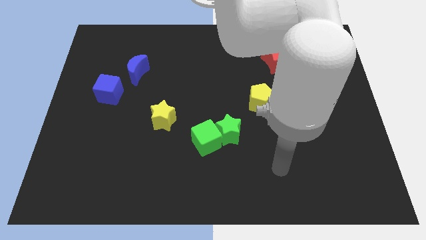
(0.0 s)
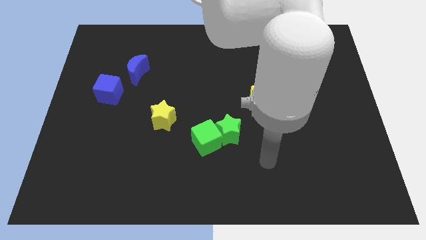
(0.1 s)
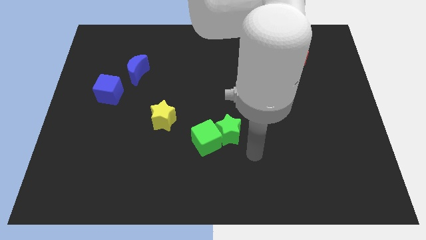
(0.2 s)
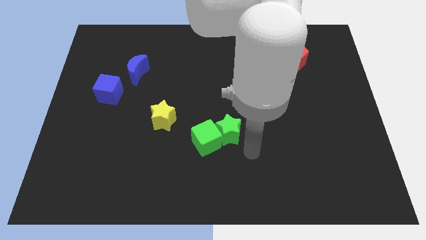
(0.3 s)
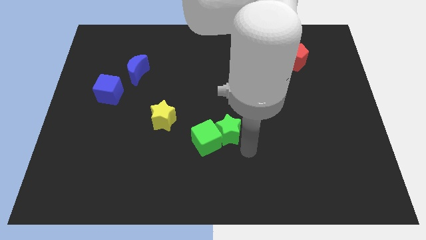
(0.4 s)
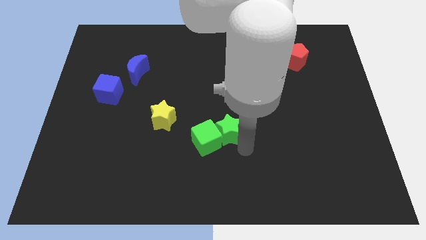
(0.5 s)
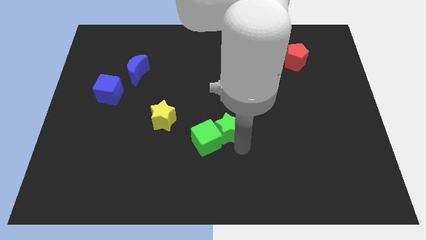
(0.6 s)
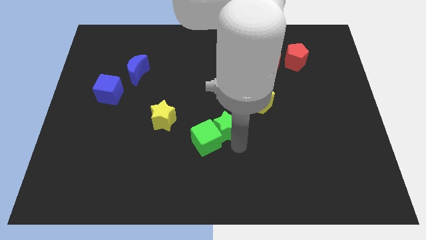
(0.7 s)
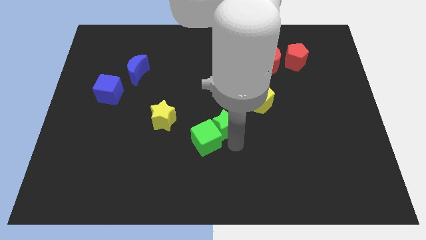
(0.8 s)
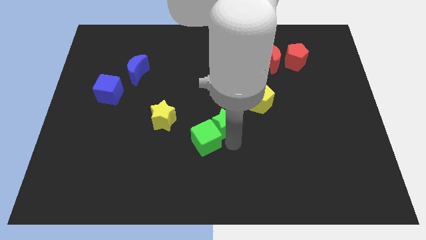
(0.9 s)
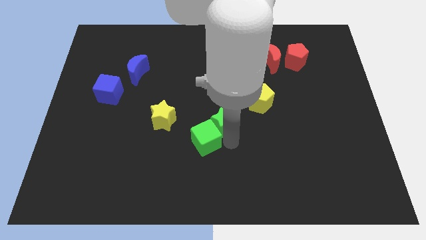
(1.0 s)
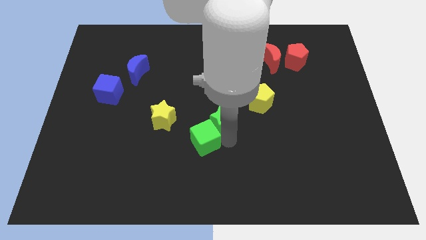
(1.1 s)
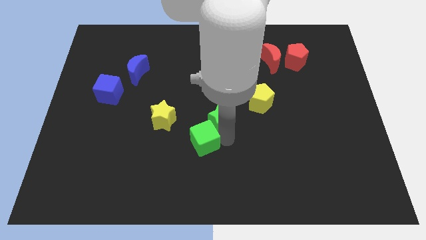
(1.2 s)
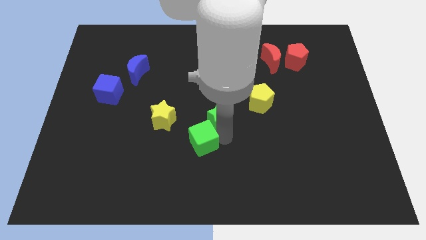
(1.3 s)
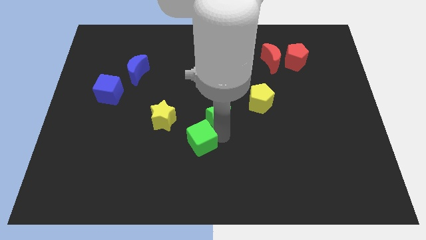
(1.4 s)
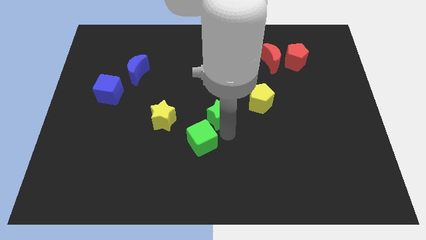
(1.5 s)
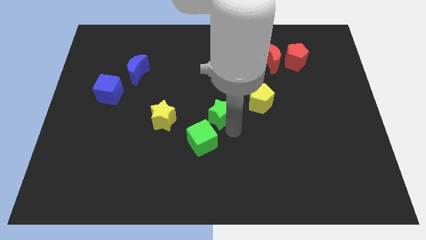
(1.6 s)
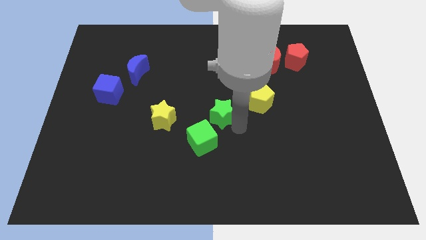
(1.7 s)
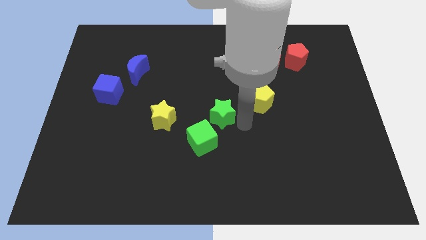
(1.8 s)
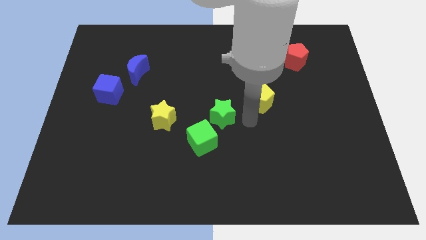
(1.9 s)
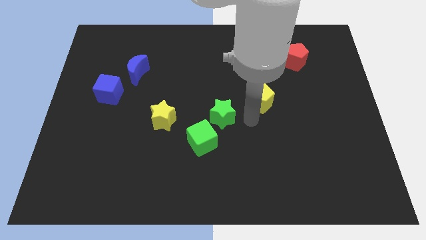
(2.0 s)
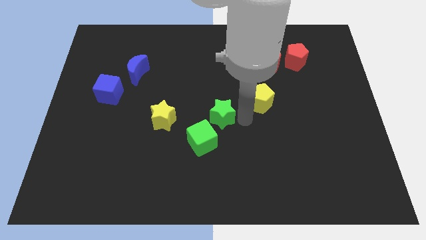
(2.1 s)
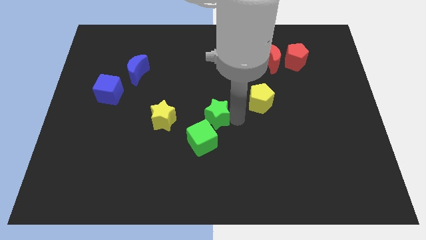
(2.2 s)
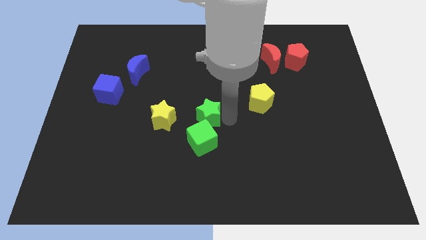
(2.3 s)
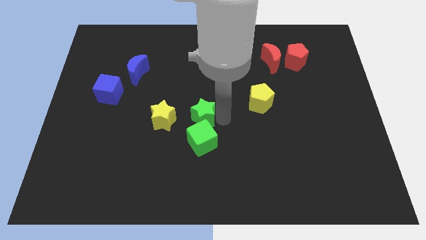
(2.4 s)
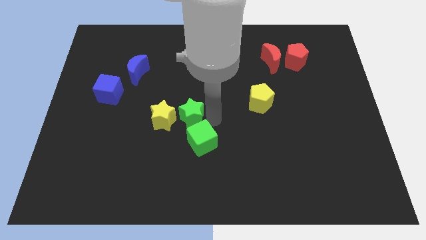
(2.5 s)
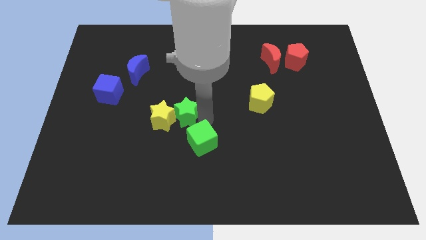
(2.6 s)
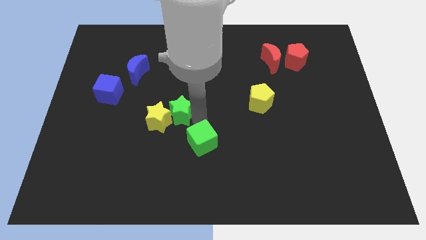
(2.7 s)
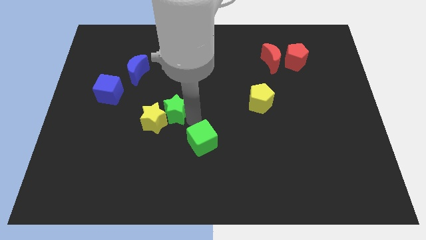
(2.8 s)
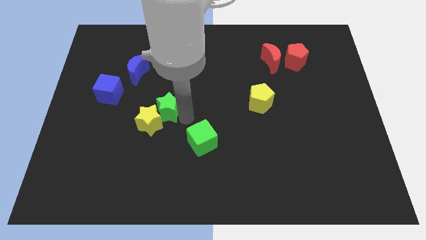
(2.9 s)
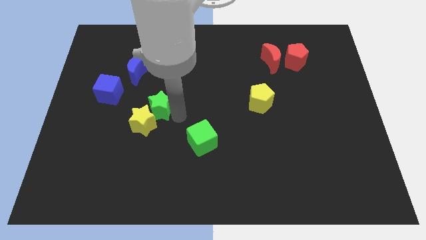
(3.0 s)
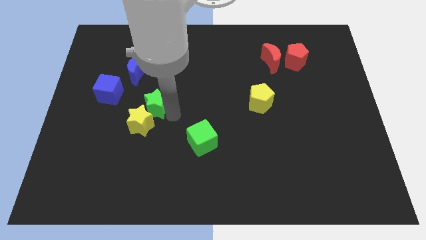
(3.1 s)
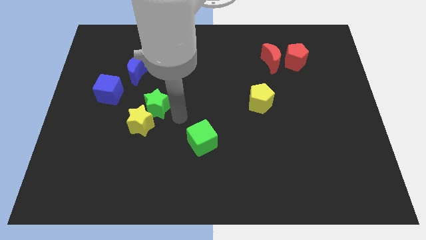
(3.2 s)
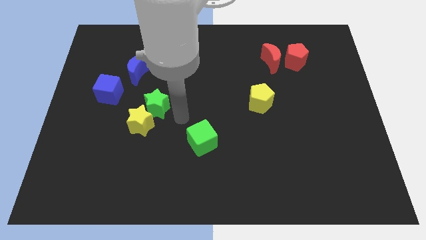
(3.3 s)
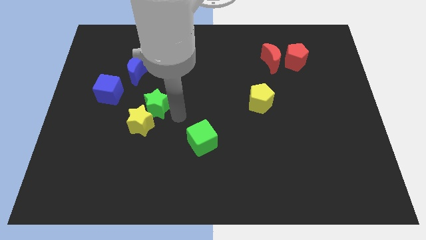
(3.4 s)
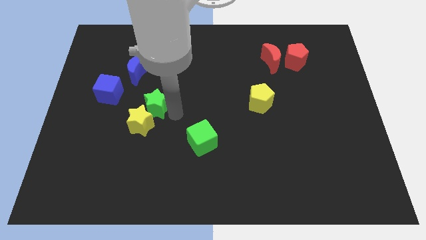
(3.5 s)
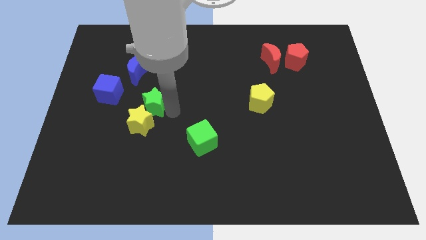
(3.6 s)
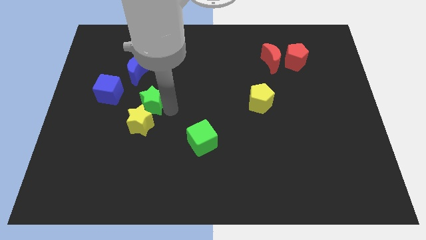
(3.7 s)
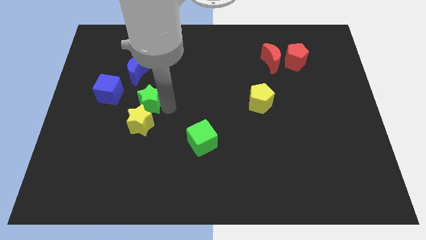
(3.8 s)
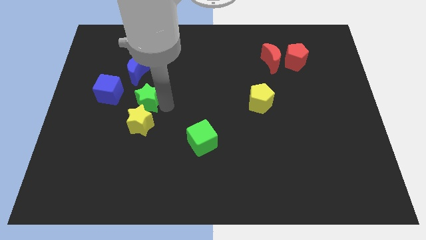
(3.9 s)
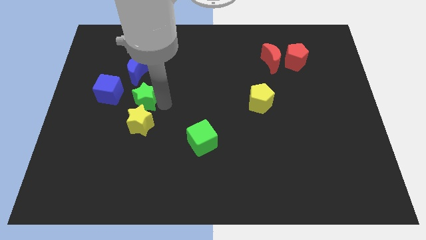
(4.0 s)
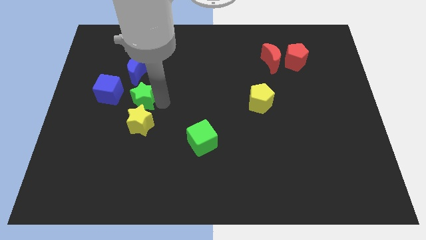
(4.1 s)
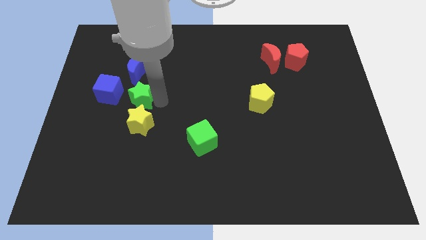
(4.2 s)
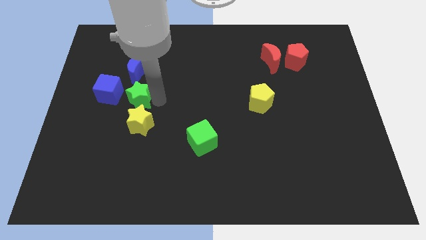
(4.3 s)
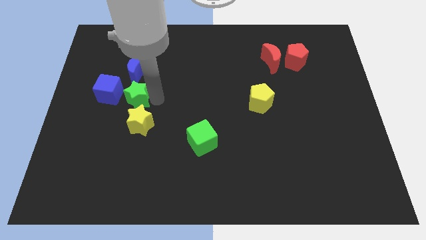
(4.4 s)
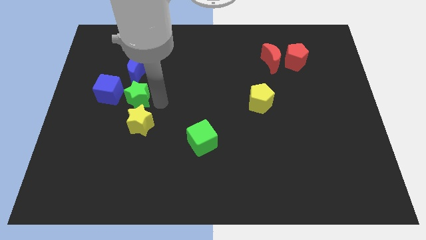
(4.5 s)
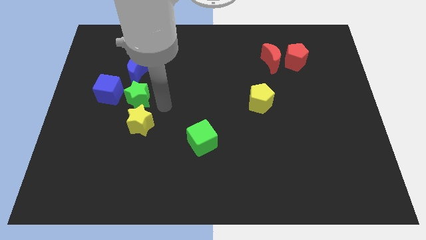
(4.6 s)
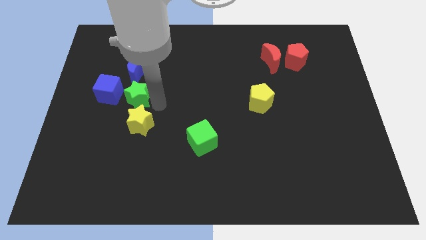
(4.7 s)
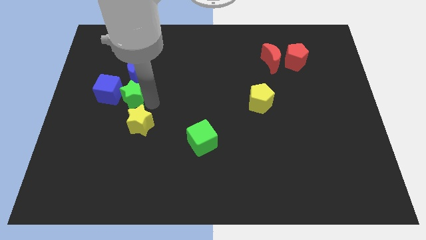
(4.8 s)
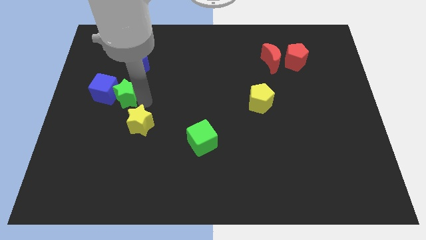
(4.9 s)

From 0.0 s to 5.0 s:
put the green star next to the blue cube

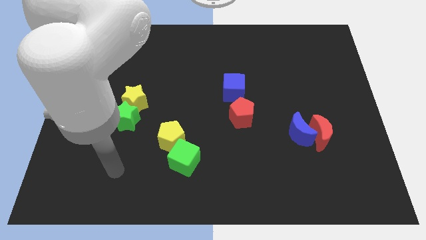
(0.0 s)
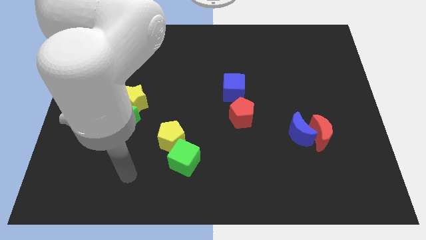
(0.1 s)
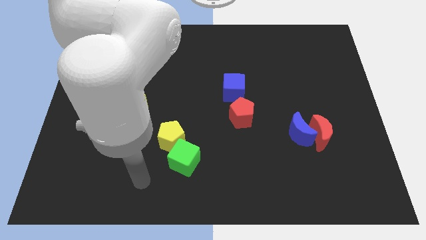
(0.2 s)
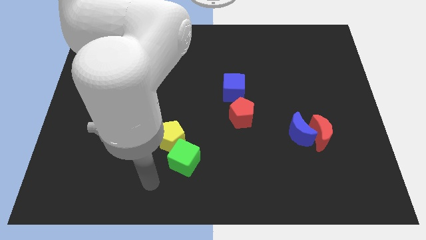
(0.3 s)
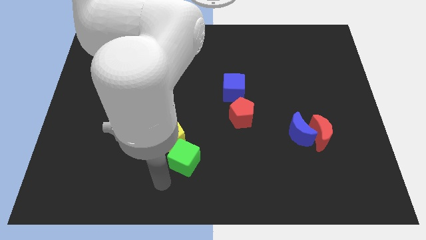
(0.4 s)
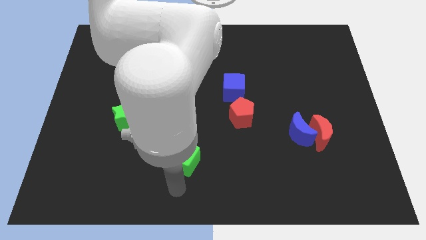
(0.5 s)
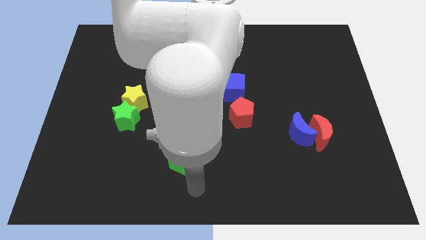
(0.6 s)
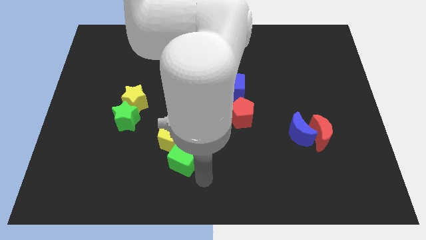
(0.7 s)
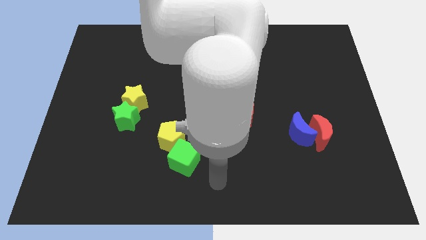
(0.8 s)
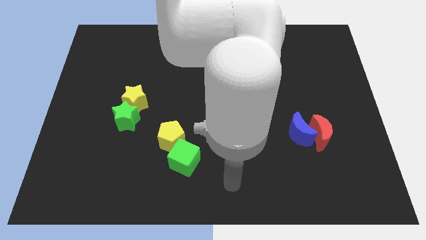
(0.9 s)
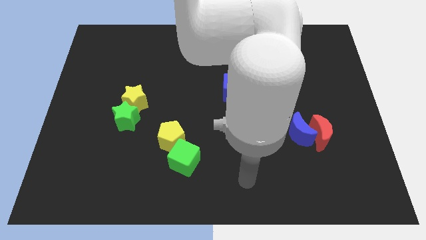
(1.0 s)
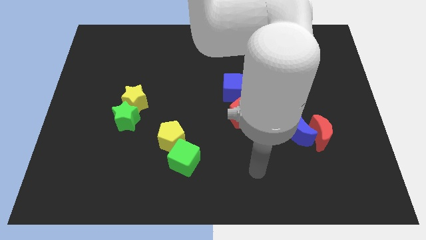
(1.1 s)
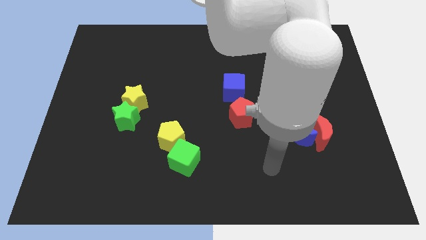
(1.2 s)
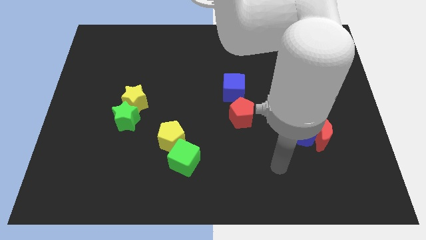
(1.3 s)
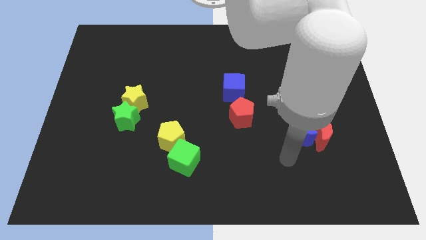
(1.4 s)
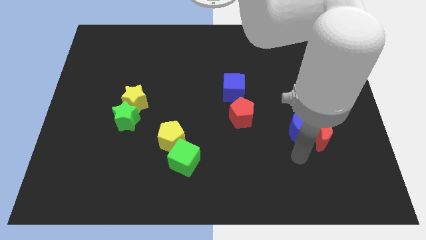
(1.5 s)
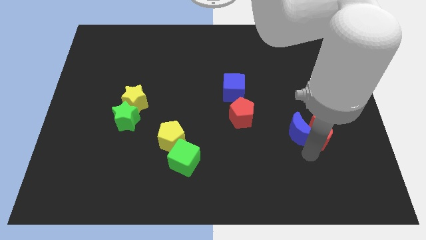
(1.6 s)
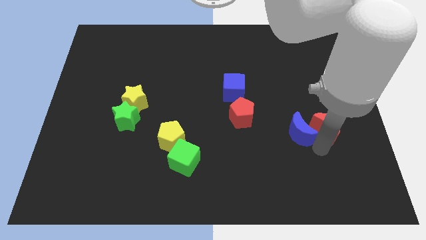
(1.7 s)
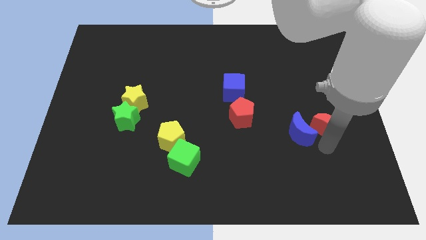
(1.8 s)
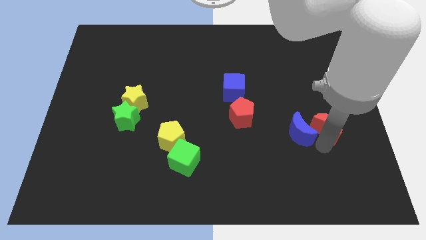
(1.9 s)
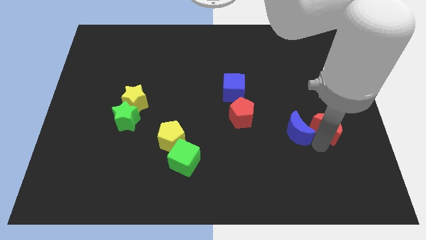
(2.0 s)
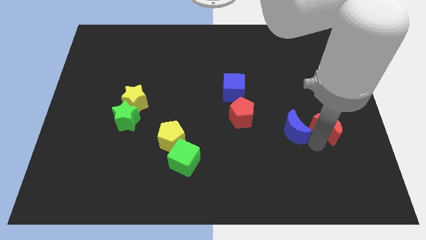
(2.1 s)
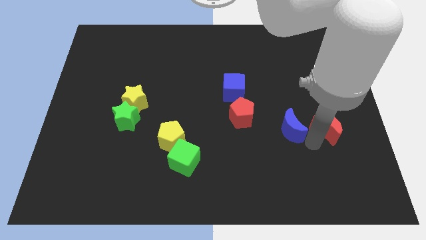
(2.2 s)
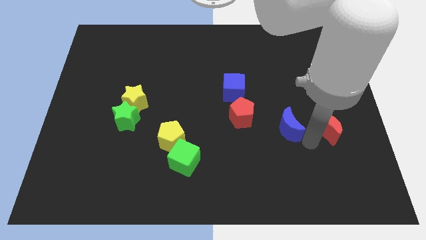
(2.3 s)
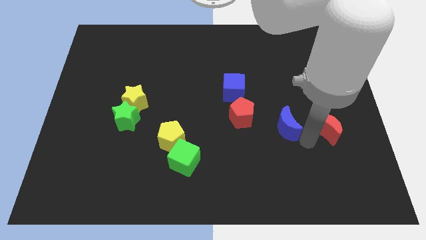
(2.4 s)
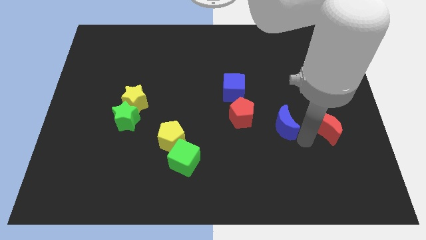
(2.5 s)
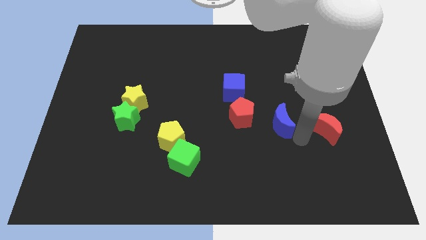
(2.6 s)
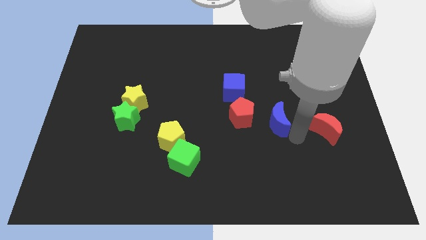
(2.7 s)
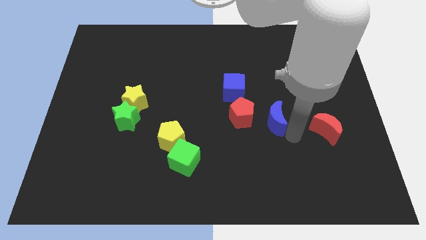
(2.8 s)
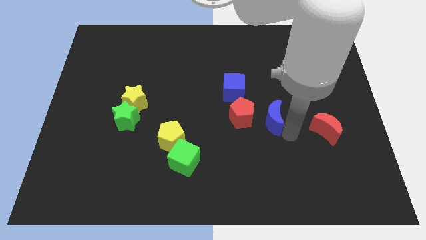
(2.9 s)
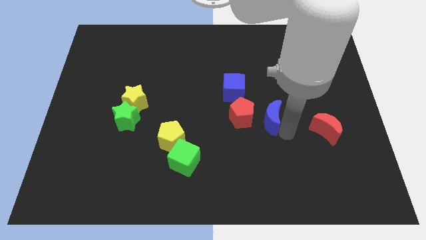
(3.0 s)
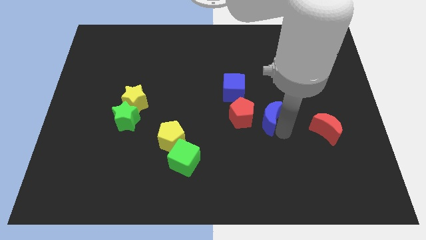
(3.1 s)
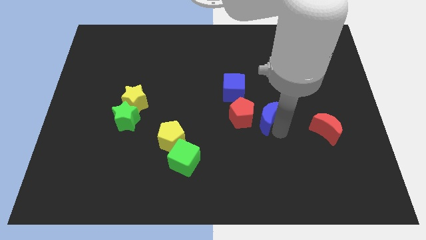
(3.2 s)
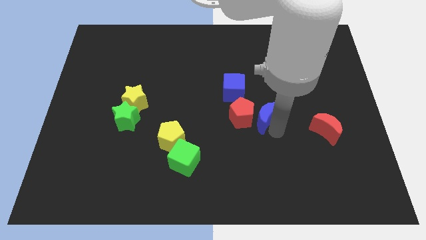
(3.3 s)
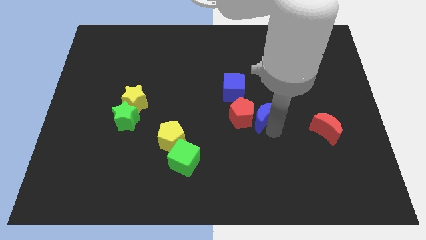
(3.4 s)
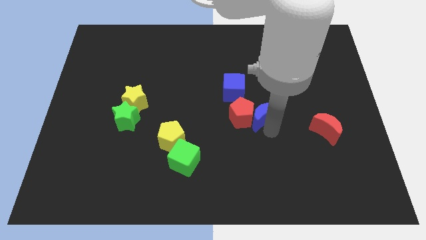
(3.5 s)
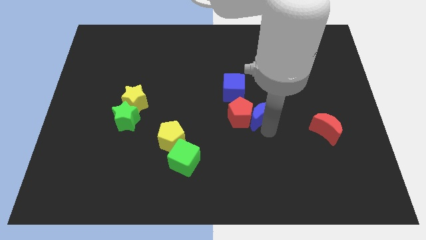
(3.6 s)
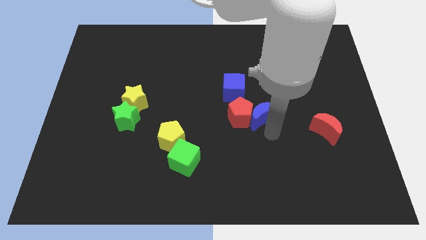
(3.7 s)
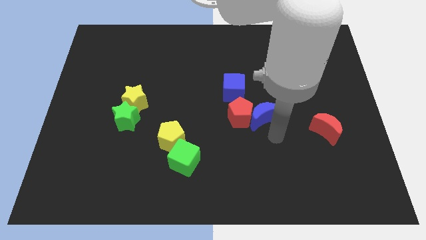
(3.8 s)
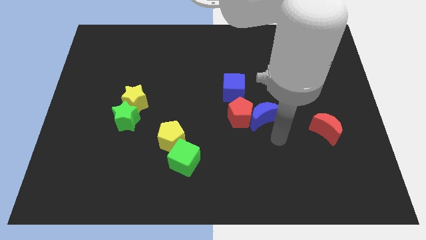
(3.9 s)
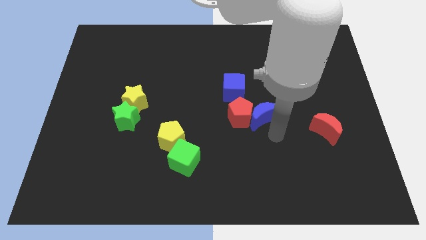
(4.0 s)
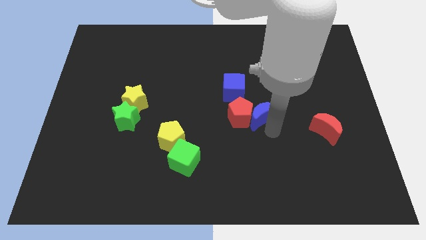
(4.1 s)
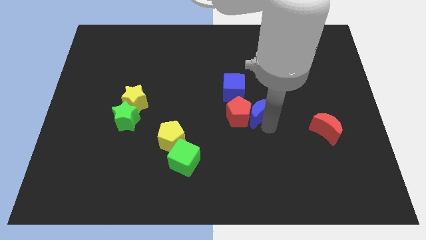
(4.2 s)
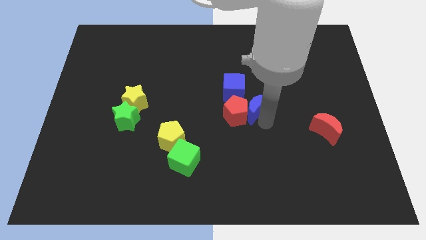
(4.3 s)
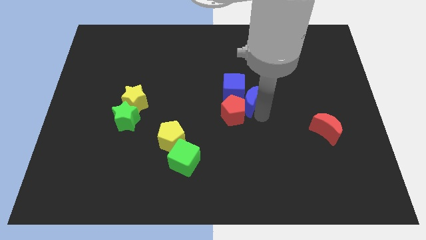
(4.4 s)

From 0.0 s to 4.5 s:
put the blue moon close to the blue cube
